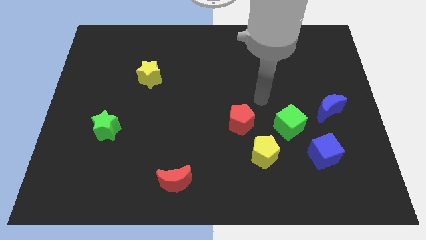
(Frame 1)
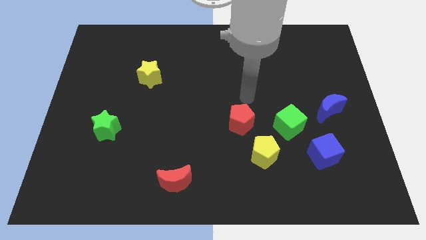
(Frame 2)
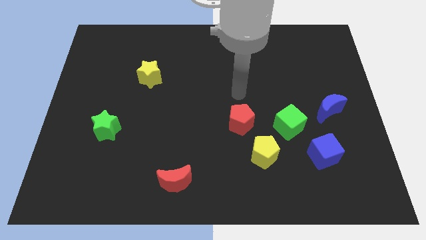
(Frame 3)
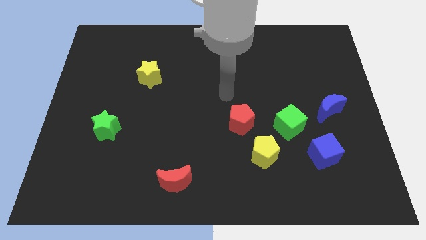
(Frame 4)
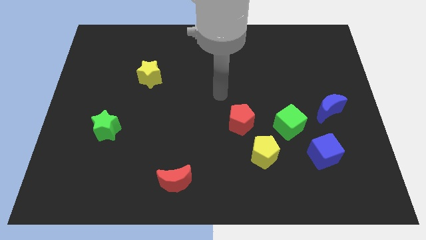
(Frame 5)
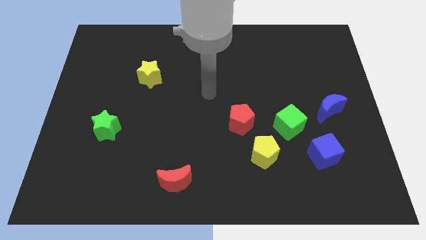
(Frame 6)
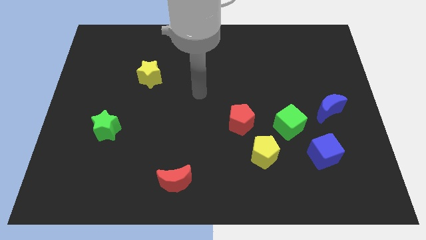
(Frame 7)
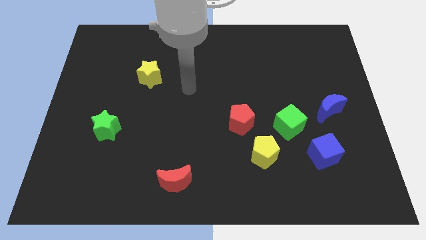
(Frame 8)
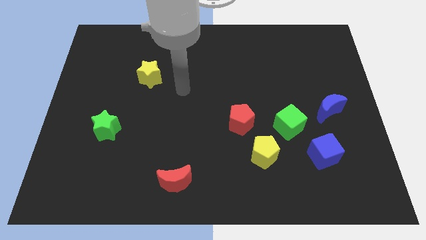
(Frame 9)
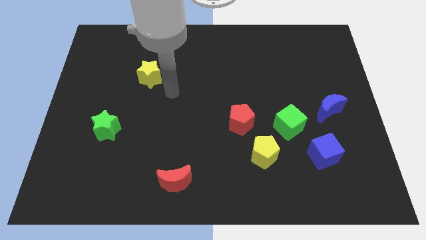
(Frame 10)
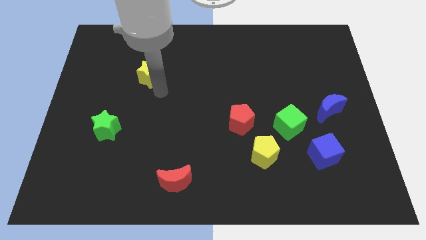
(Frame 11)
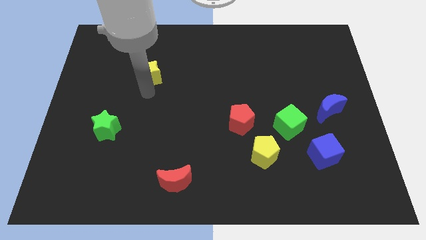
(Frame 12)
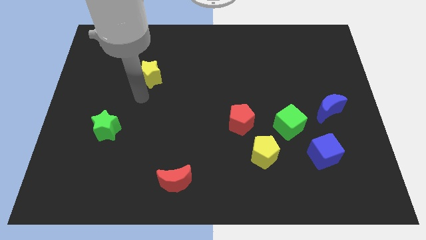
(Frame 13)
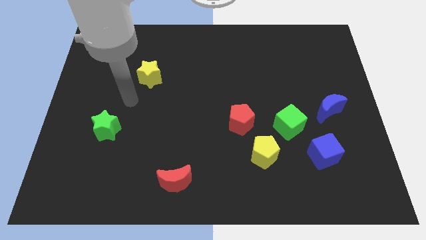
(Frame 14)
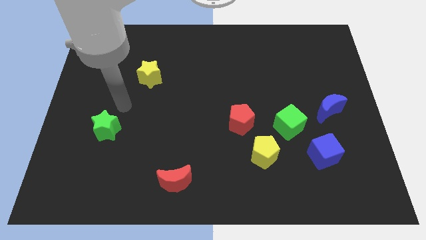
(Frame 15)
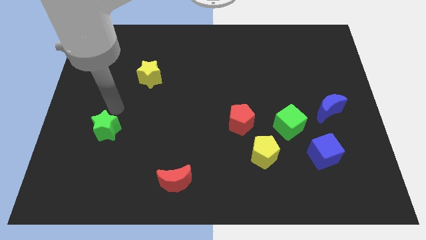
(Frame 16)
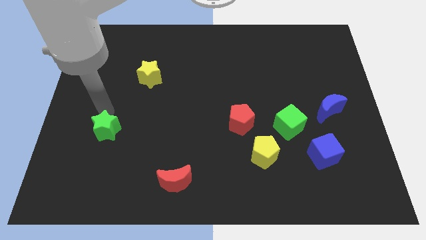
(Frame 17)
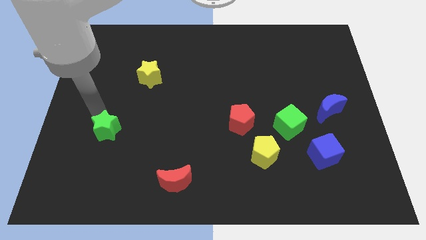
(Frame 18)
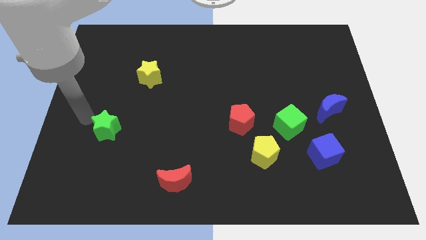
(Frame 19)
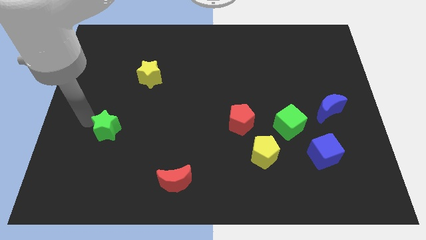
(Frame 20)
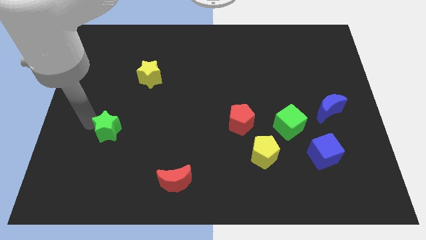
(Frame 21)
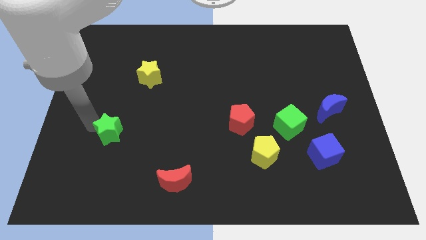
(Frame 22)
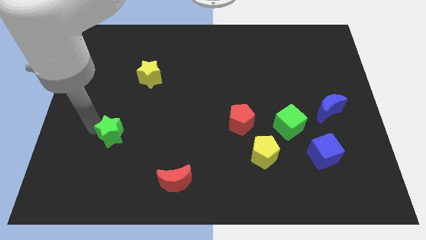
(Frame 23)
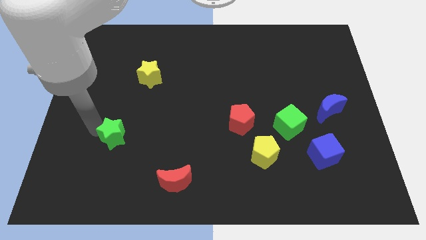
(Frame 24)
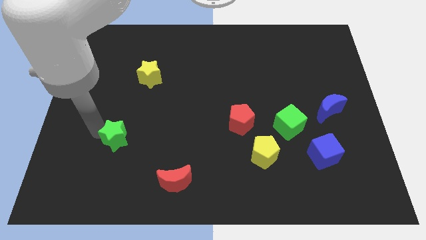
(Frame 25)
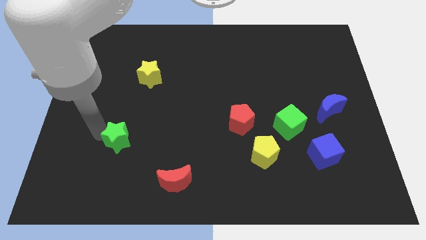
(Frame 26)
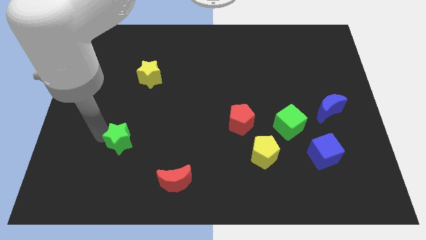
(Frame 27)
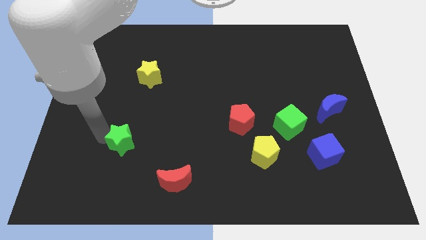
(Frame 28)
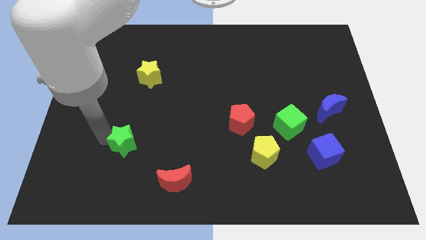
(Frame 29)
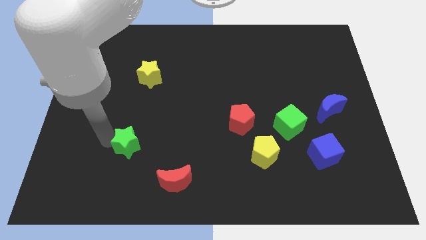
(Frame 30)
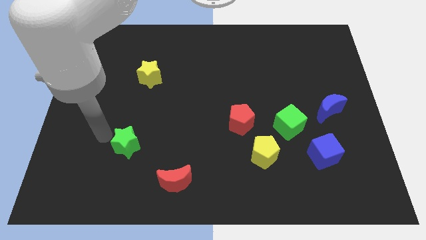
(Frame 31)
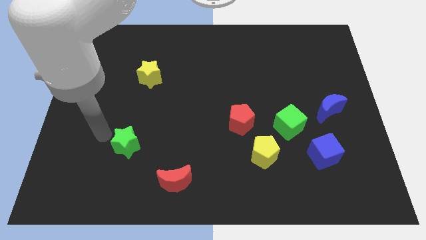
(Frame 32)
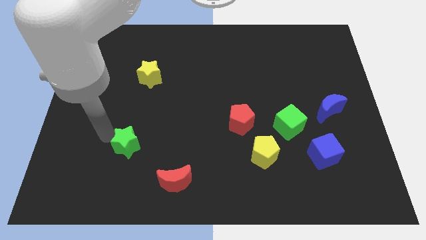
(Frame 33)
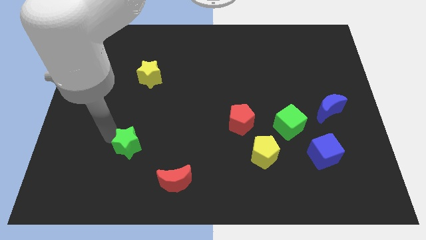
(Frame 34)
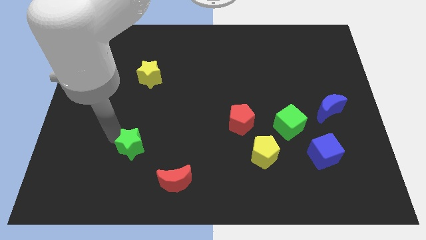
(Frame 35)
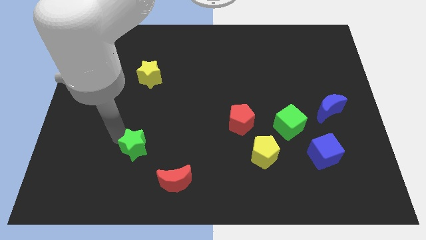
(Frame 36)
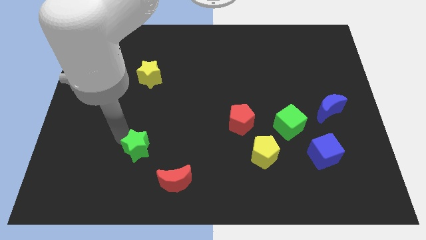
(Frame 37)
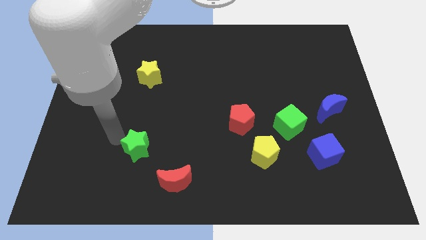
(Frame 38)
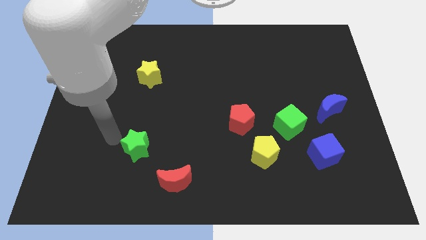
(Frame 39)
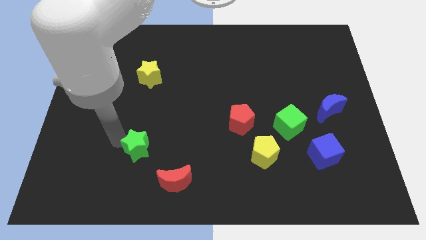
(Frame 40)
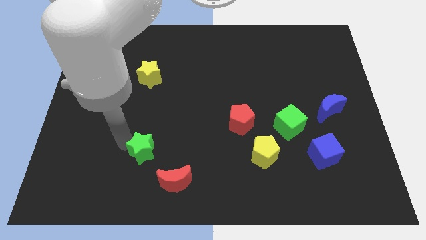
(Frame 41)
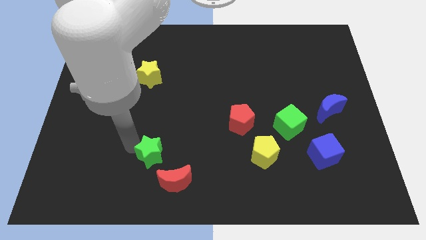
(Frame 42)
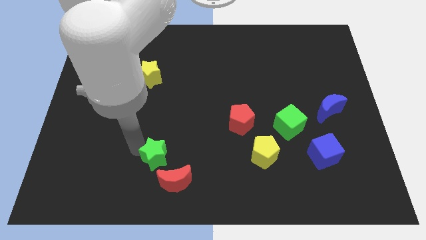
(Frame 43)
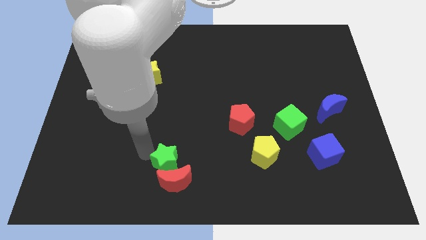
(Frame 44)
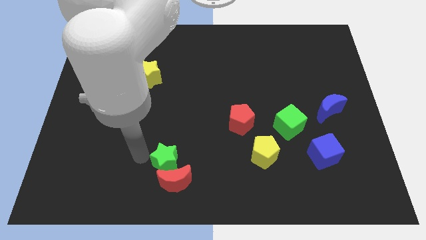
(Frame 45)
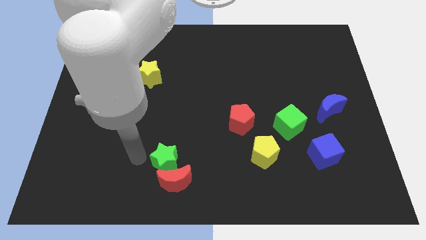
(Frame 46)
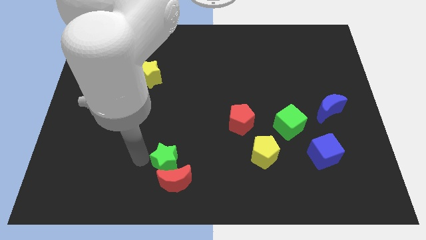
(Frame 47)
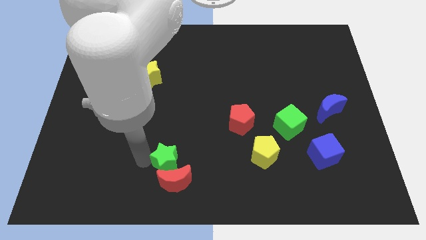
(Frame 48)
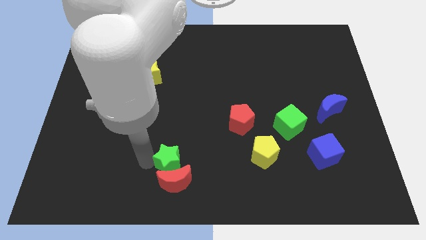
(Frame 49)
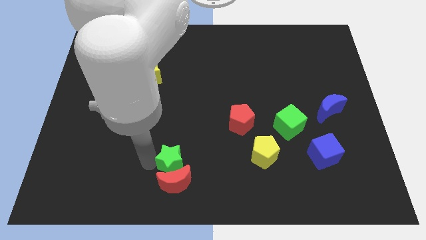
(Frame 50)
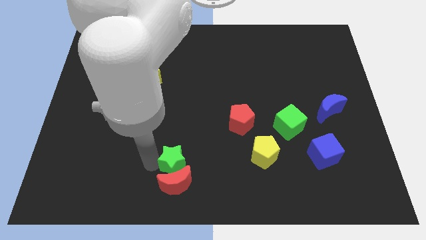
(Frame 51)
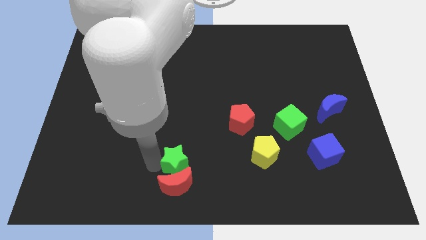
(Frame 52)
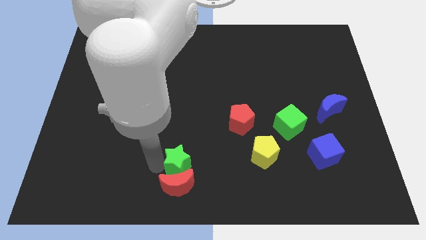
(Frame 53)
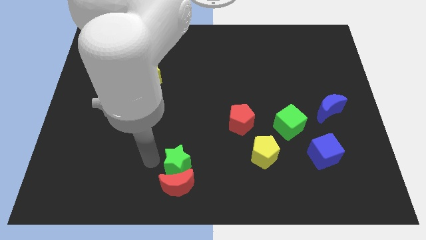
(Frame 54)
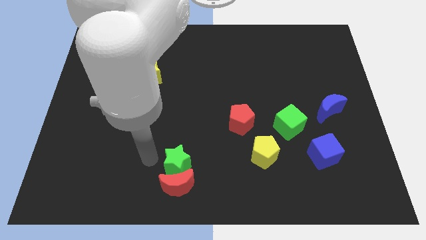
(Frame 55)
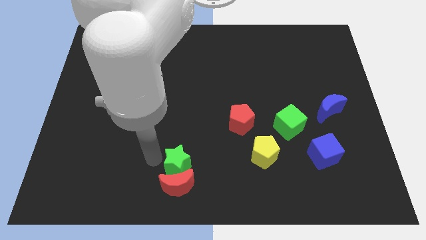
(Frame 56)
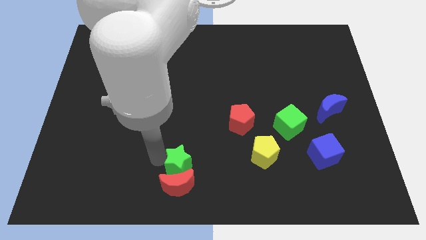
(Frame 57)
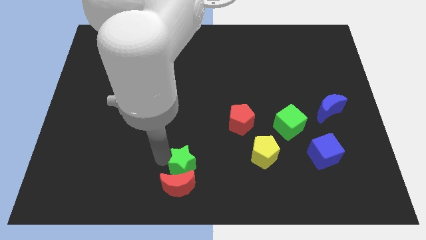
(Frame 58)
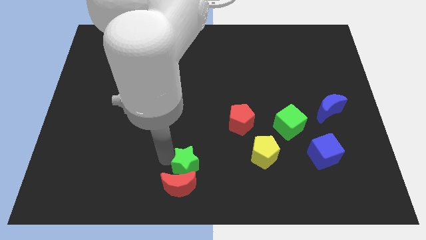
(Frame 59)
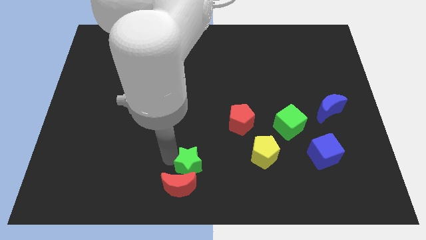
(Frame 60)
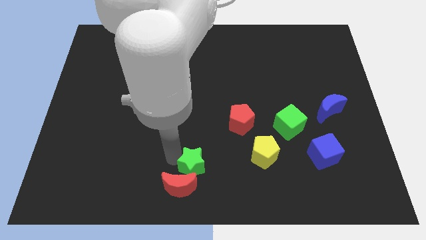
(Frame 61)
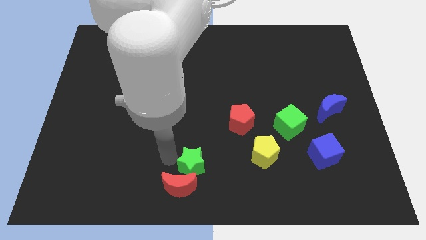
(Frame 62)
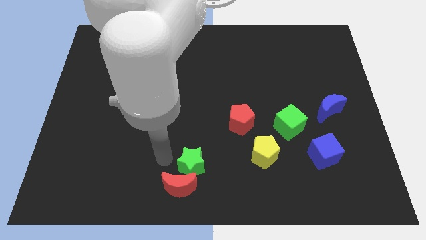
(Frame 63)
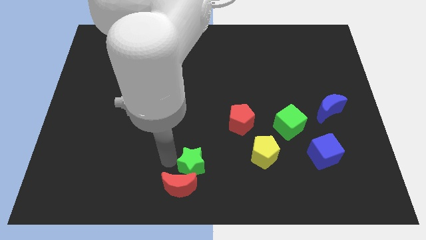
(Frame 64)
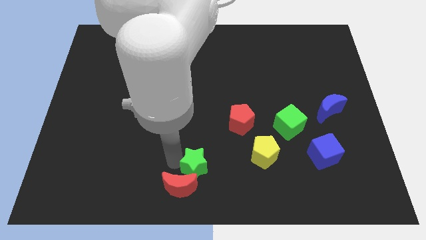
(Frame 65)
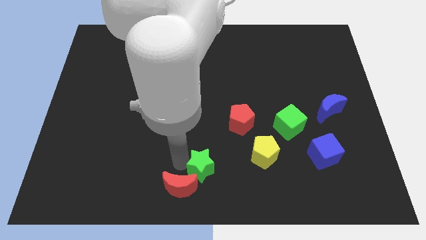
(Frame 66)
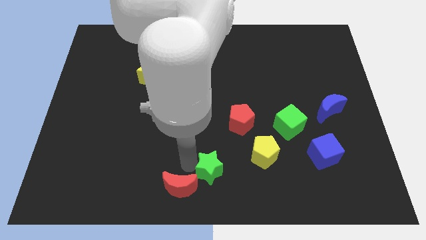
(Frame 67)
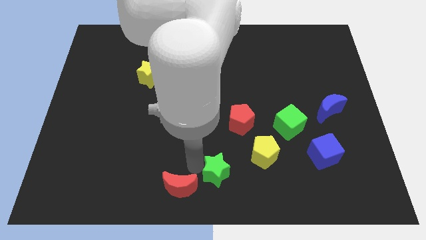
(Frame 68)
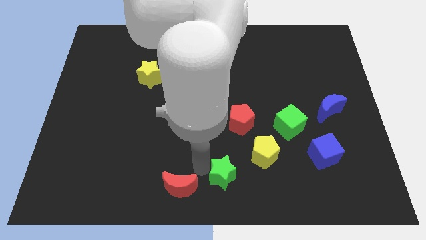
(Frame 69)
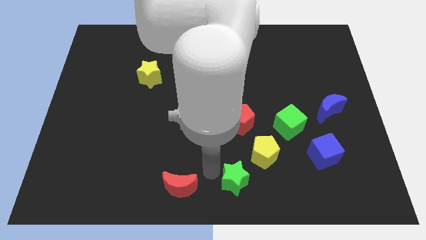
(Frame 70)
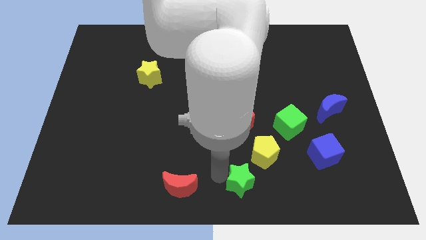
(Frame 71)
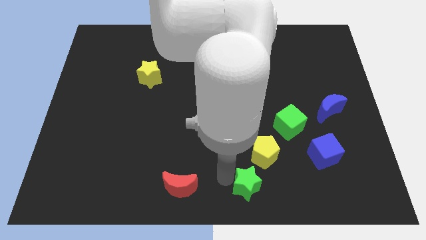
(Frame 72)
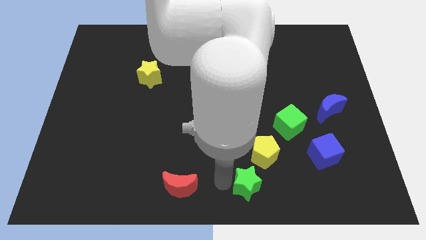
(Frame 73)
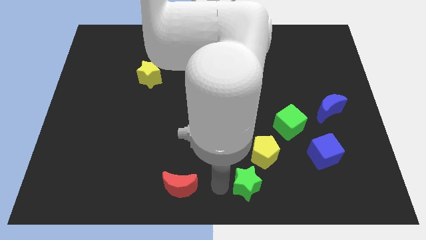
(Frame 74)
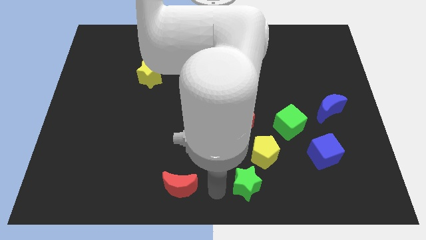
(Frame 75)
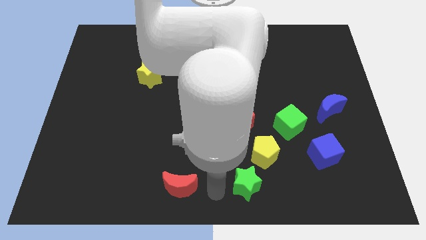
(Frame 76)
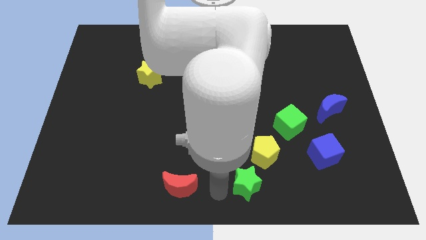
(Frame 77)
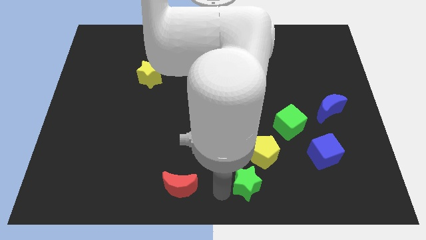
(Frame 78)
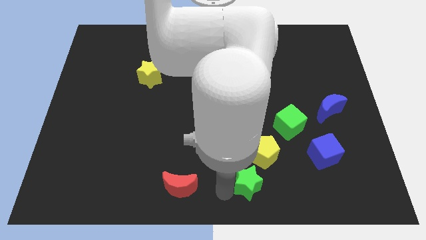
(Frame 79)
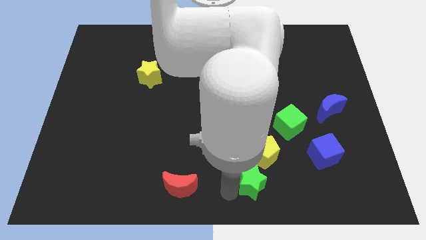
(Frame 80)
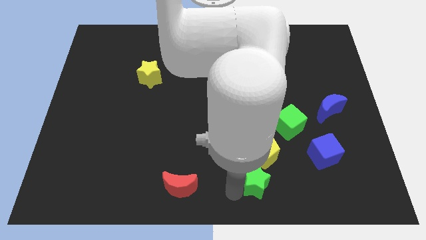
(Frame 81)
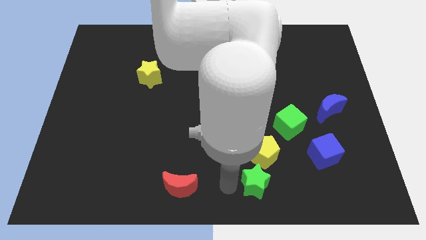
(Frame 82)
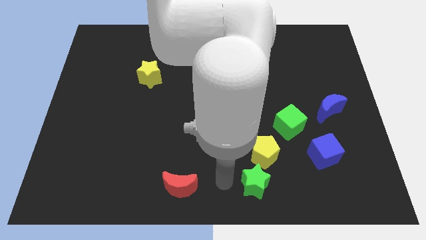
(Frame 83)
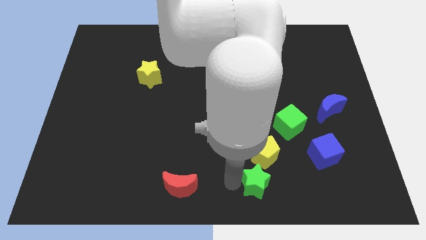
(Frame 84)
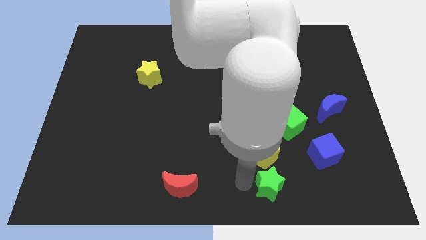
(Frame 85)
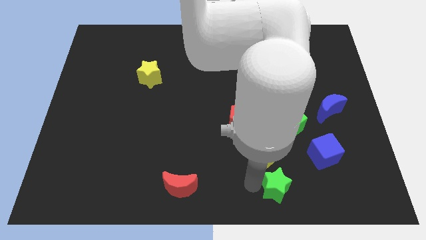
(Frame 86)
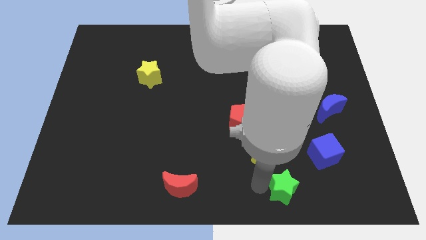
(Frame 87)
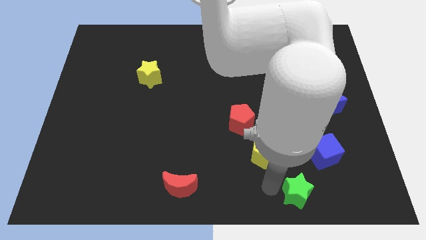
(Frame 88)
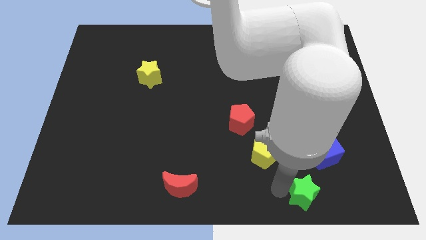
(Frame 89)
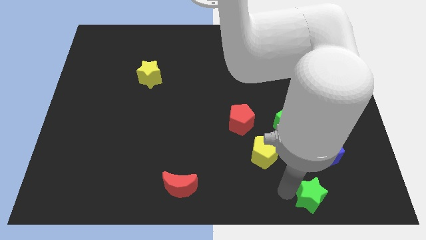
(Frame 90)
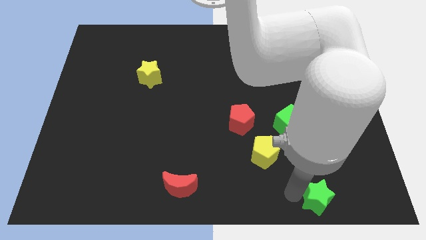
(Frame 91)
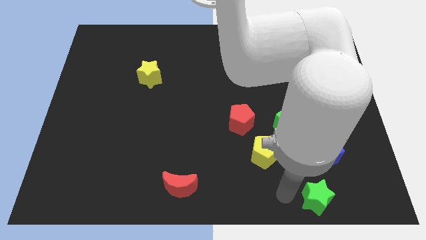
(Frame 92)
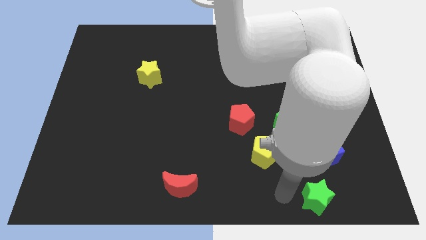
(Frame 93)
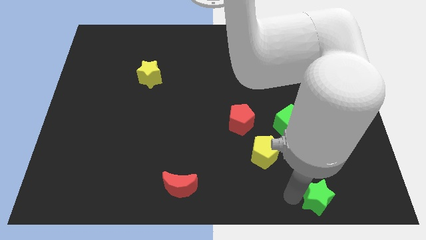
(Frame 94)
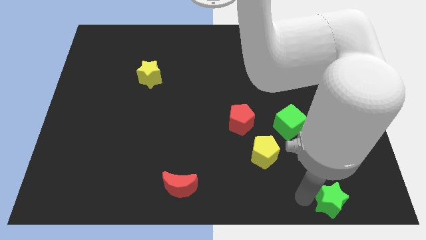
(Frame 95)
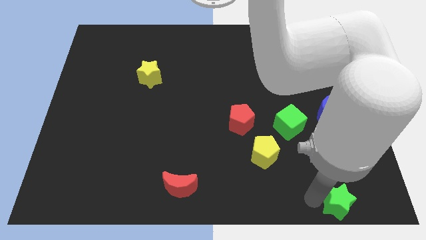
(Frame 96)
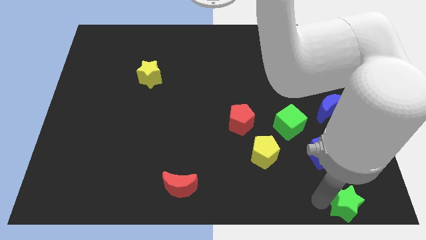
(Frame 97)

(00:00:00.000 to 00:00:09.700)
push the green star to the bottom right
